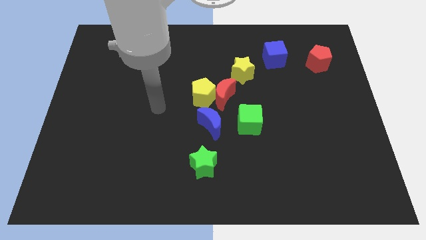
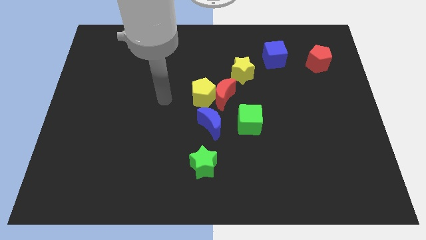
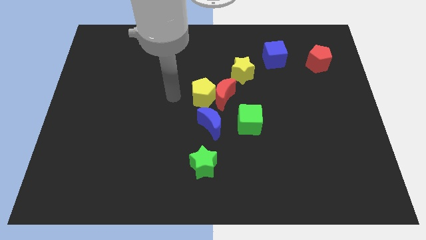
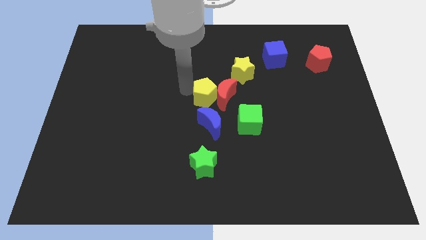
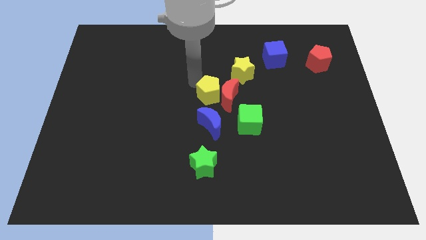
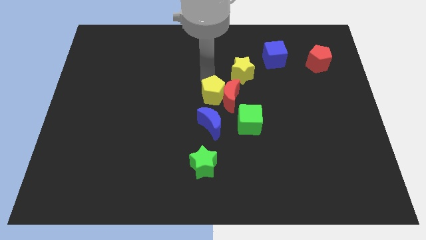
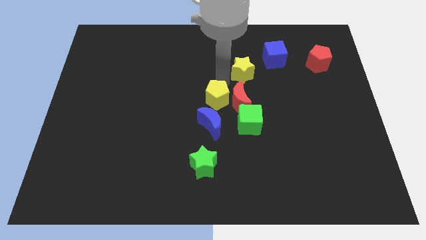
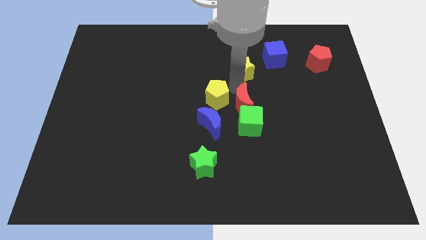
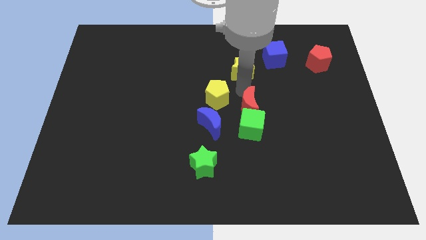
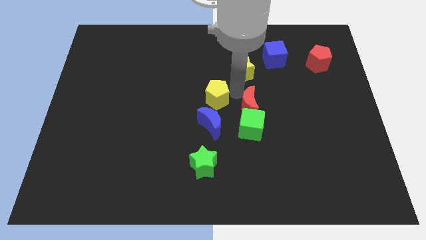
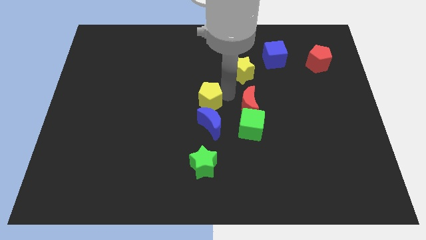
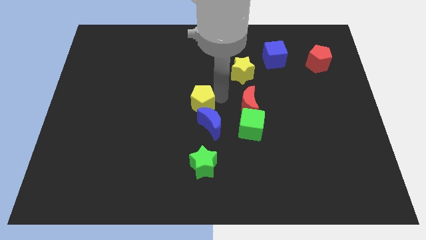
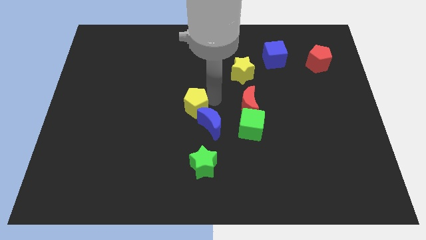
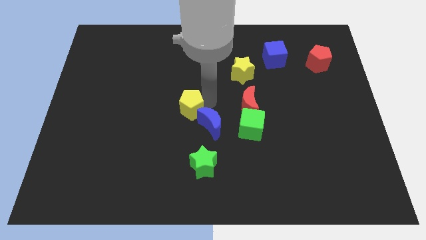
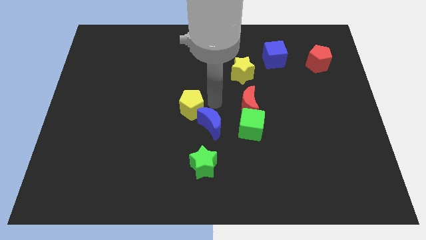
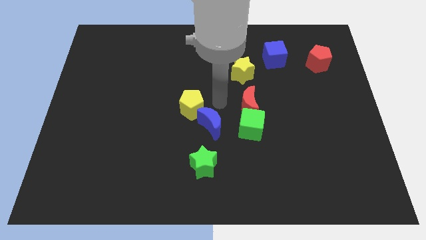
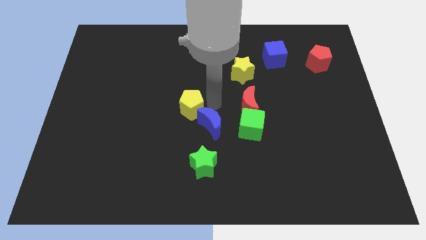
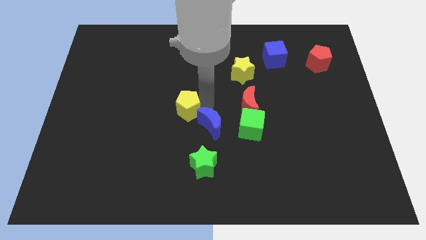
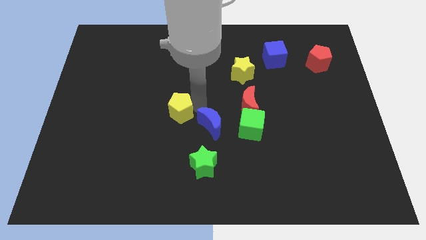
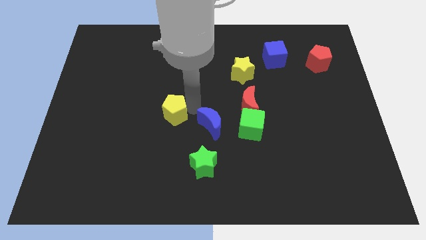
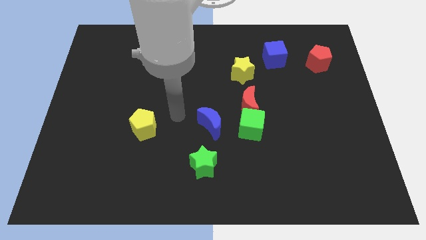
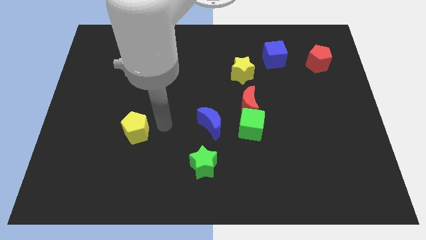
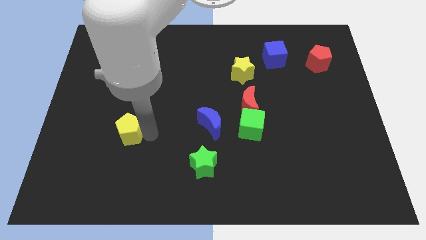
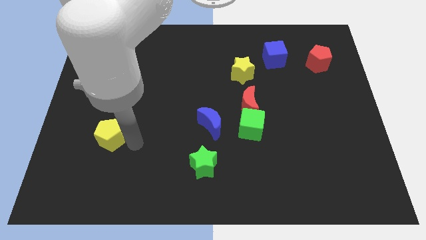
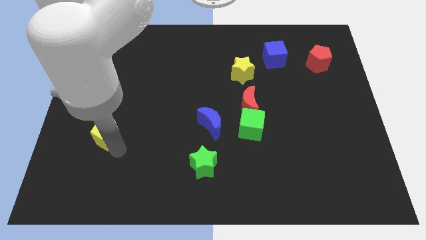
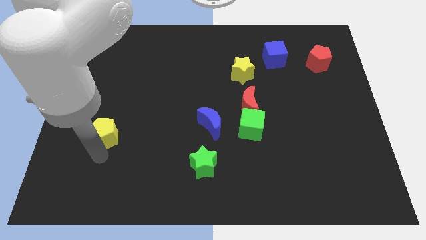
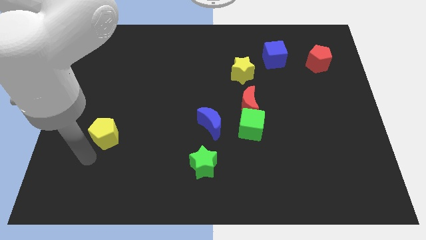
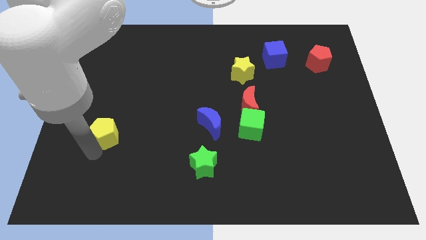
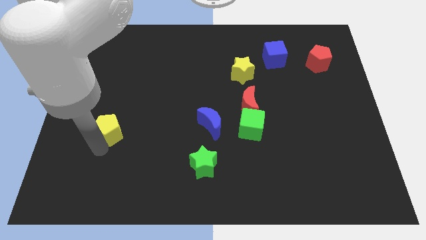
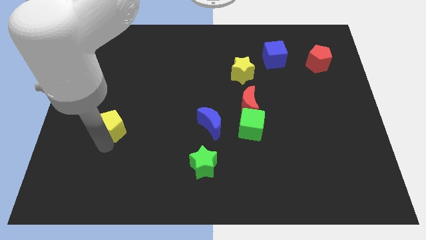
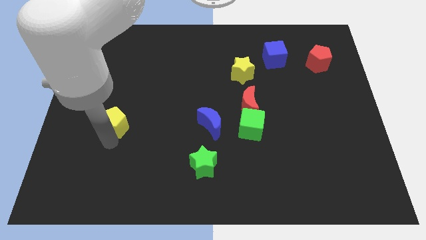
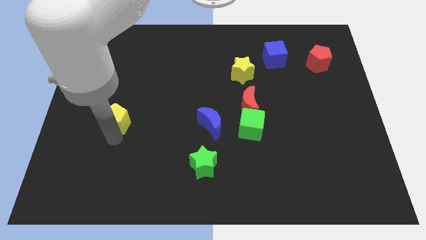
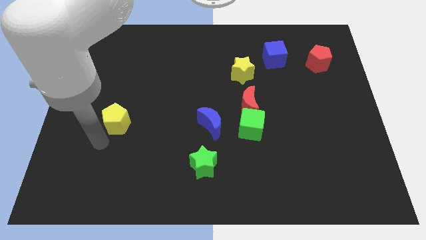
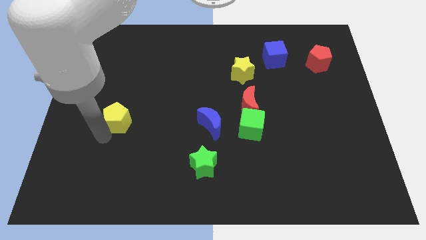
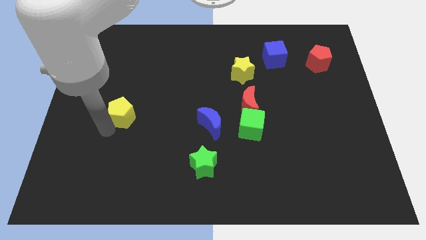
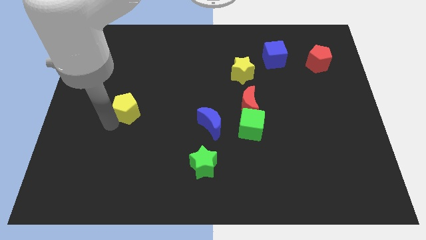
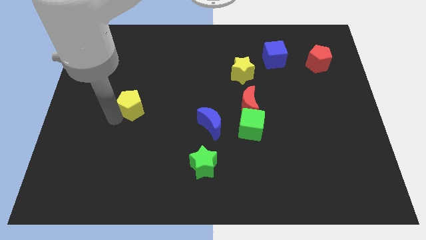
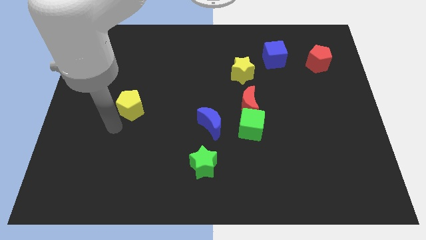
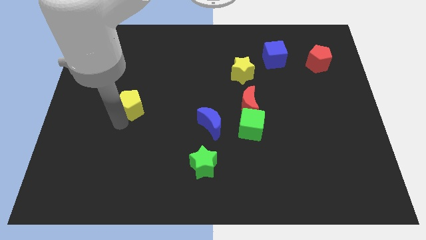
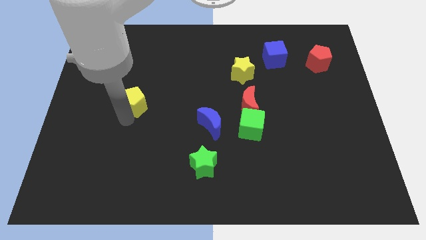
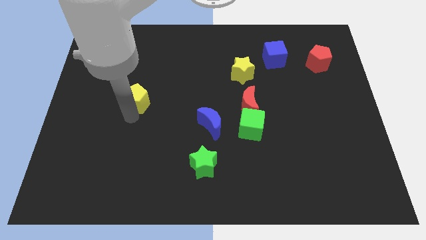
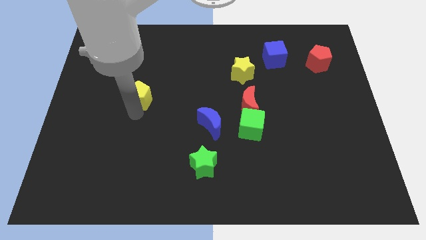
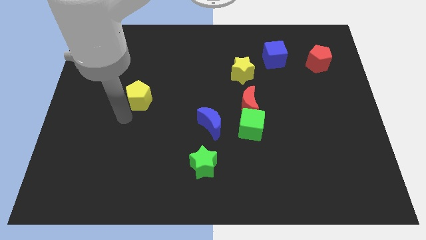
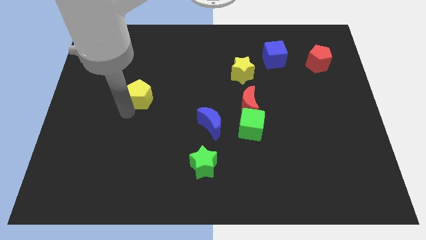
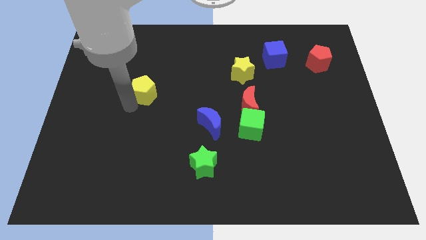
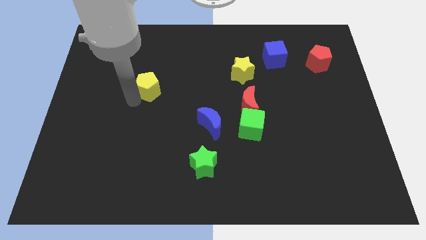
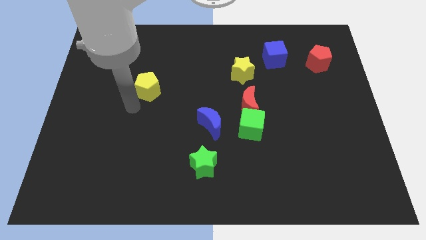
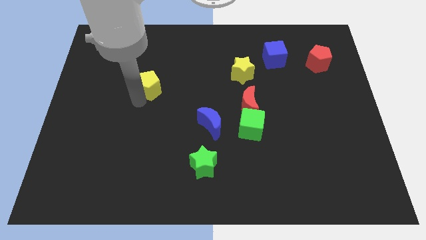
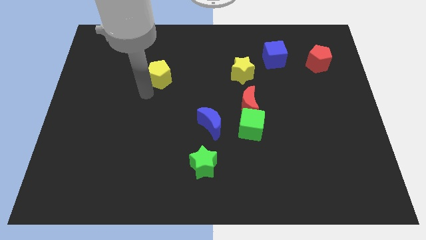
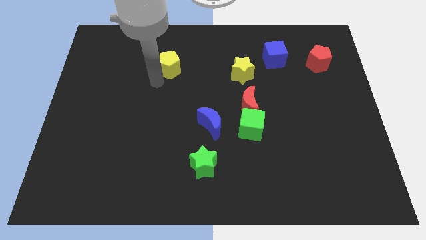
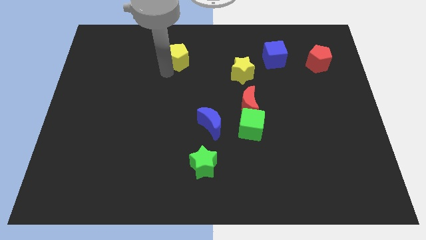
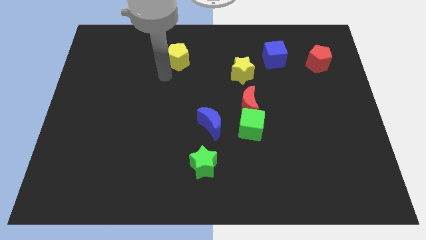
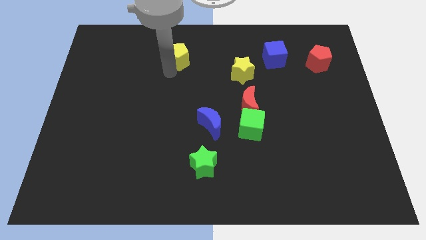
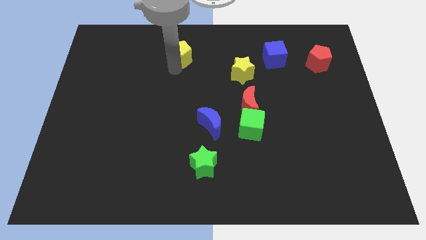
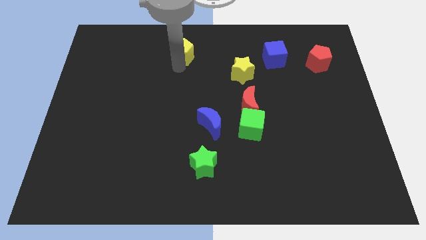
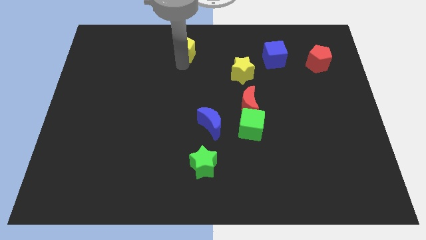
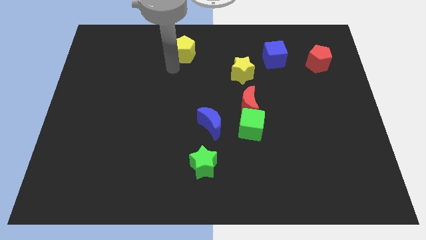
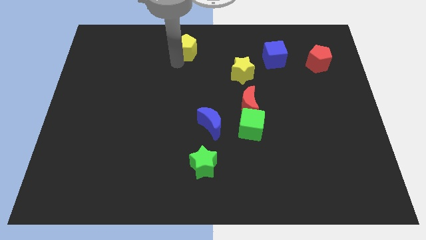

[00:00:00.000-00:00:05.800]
put the yellow pentagon to the top
